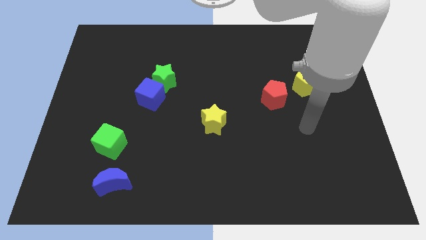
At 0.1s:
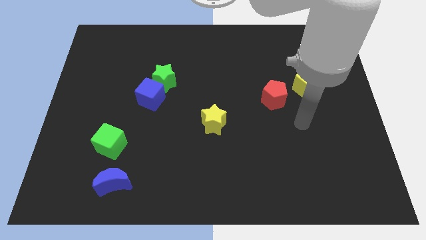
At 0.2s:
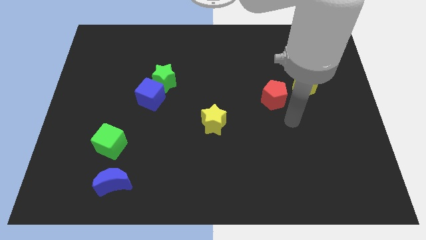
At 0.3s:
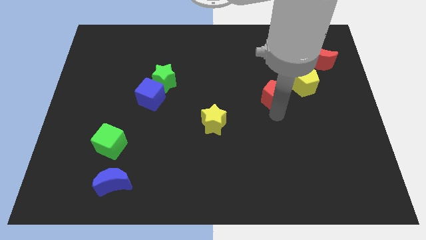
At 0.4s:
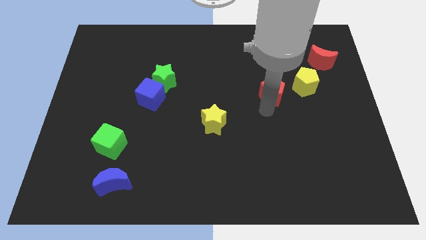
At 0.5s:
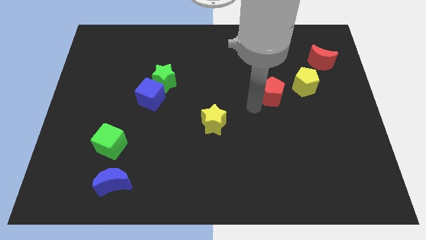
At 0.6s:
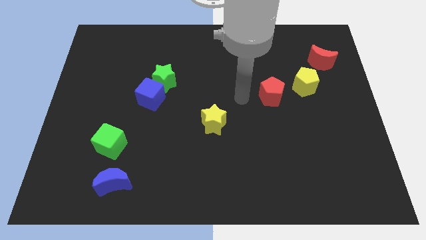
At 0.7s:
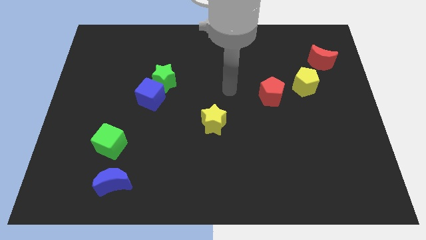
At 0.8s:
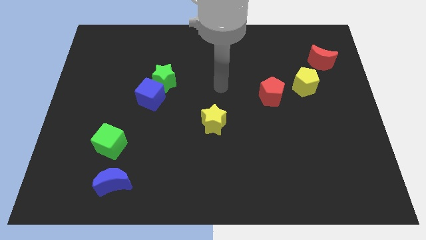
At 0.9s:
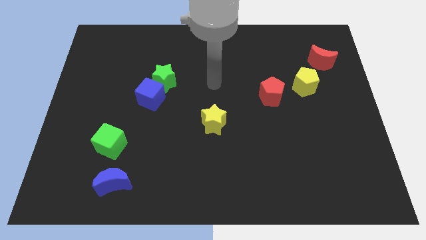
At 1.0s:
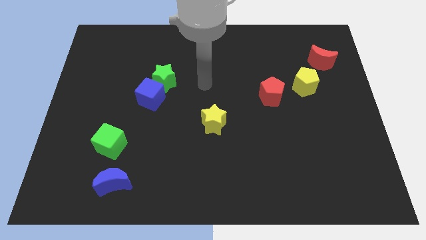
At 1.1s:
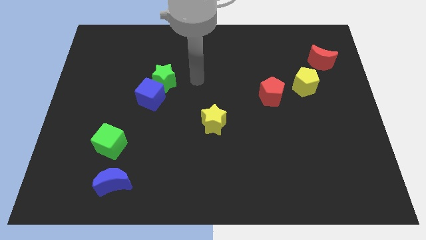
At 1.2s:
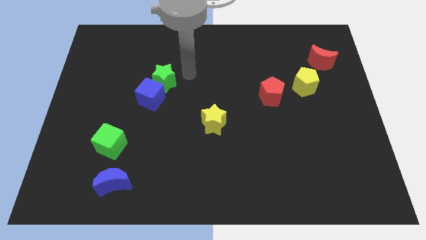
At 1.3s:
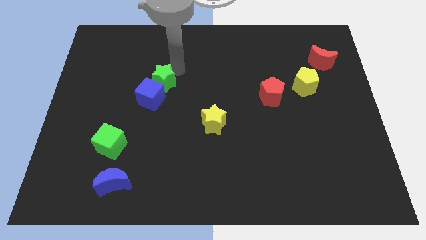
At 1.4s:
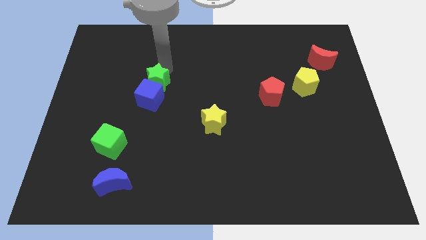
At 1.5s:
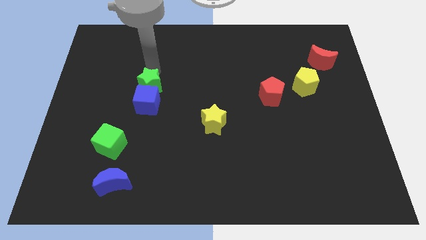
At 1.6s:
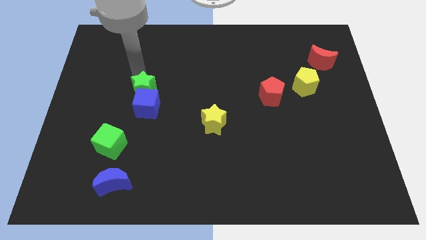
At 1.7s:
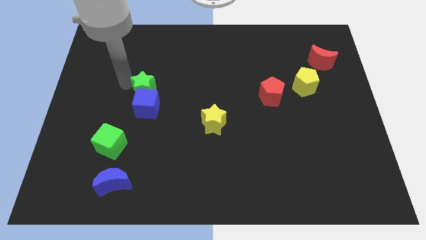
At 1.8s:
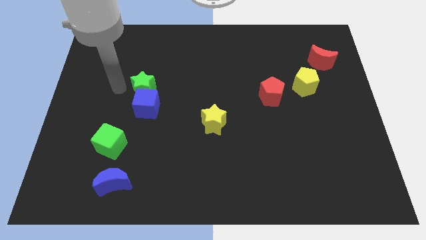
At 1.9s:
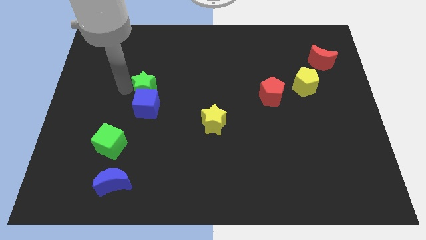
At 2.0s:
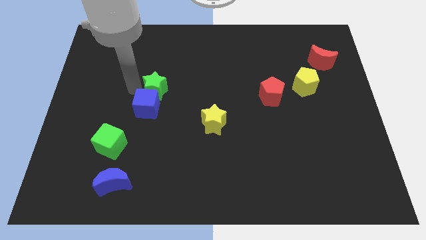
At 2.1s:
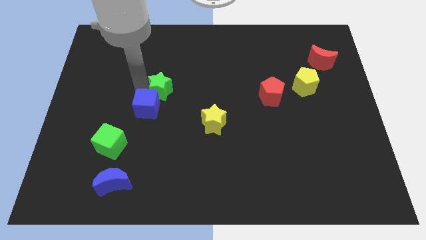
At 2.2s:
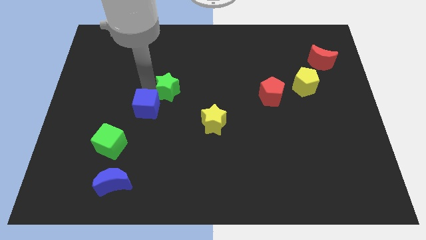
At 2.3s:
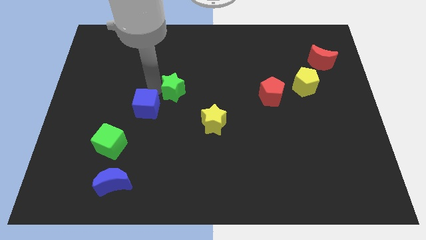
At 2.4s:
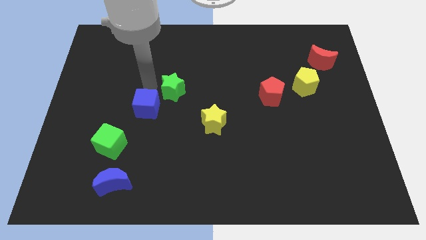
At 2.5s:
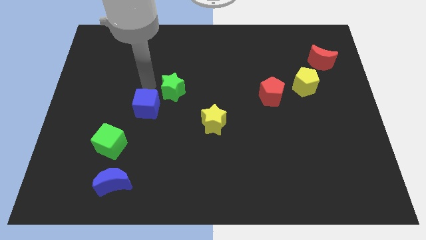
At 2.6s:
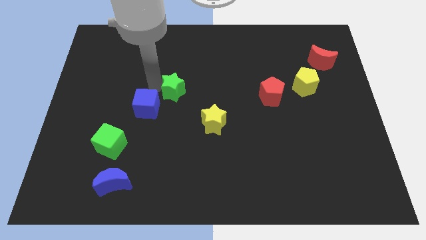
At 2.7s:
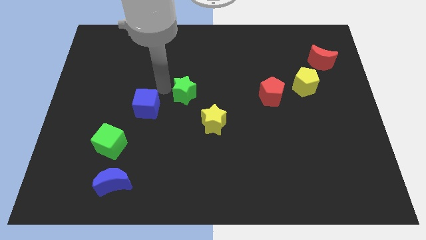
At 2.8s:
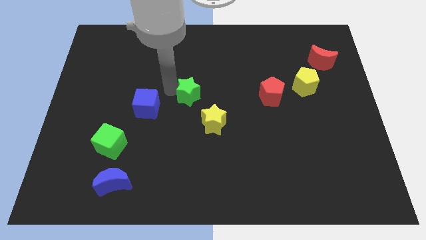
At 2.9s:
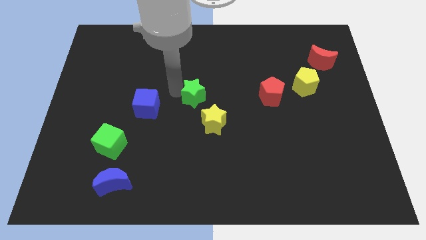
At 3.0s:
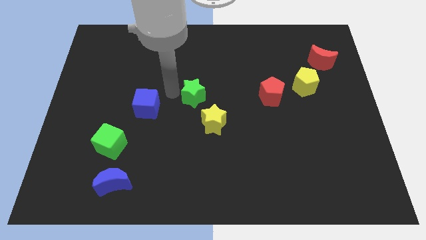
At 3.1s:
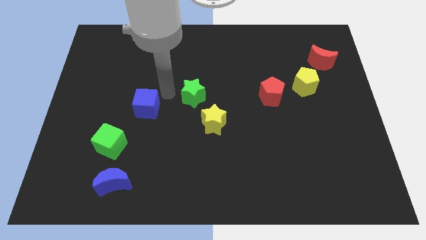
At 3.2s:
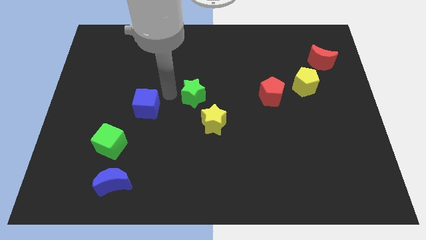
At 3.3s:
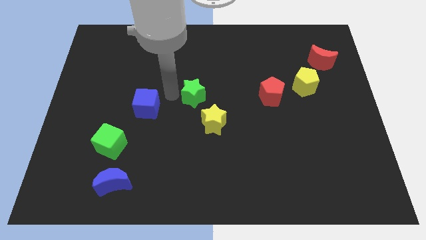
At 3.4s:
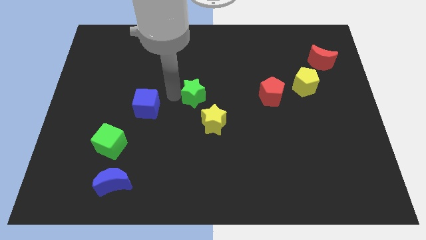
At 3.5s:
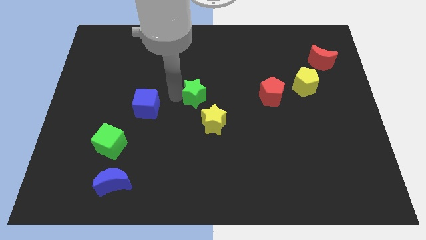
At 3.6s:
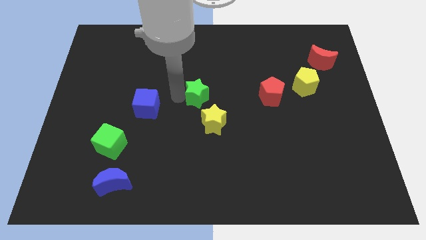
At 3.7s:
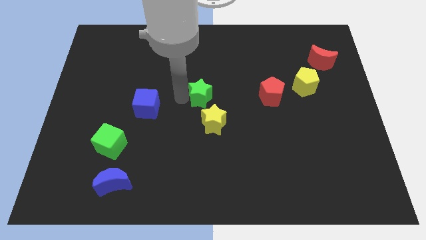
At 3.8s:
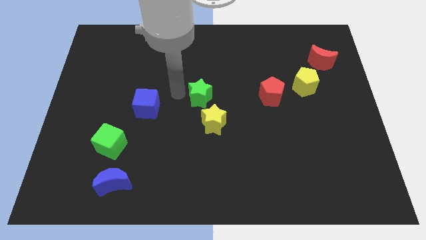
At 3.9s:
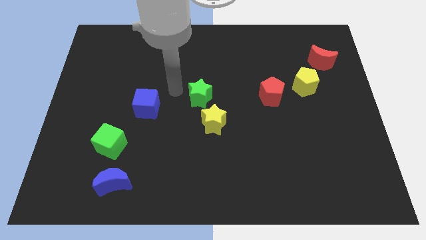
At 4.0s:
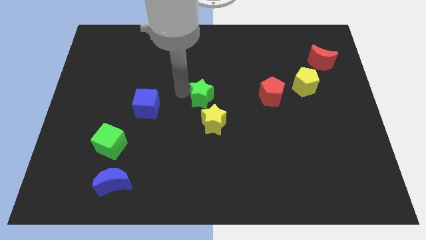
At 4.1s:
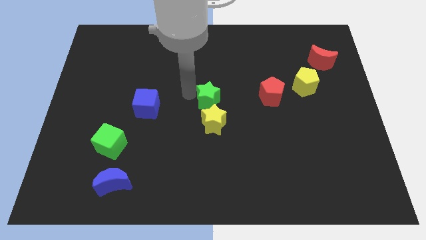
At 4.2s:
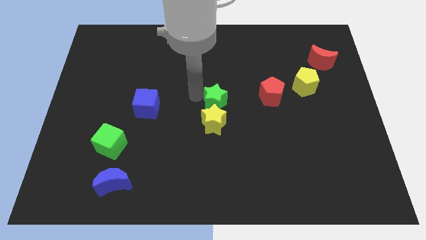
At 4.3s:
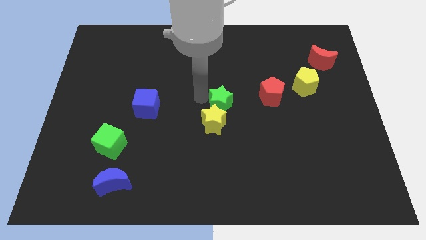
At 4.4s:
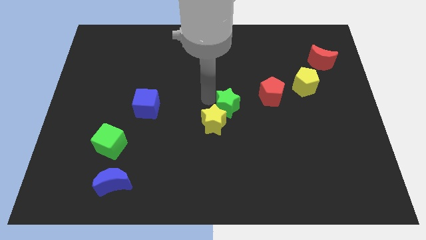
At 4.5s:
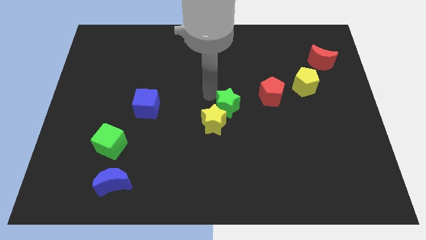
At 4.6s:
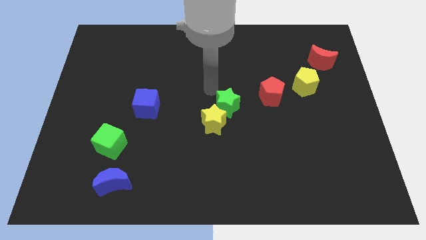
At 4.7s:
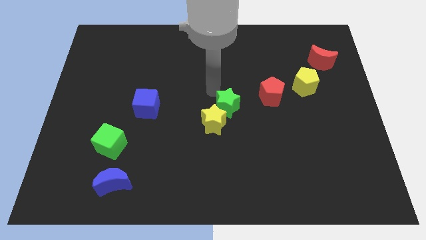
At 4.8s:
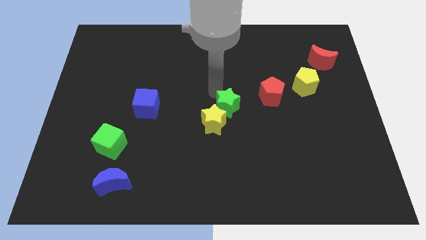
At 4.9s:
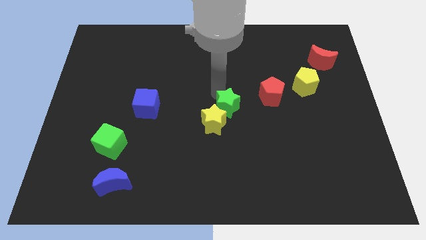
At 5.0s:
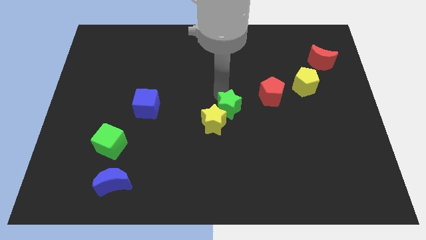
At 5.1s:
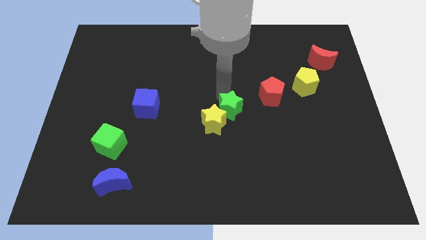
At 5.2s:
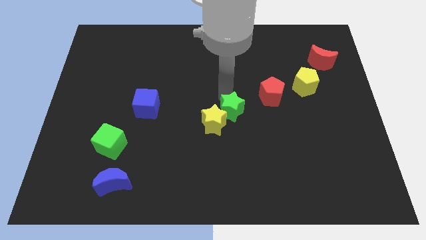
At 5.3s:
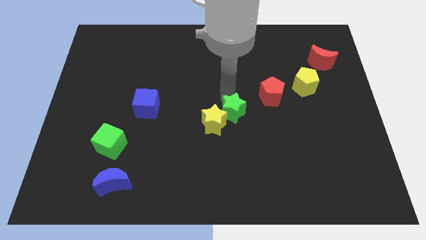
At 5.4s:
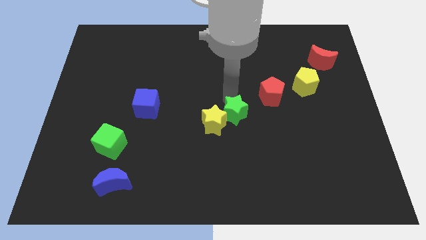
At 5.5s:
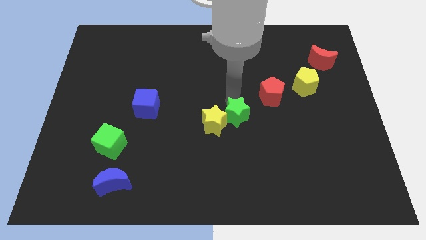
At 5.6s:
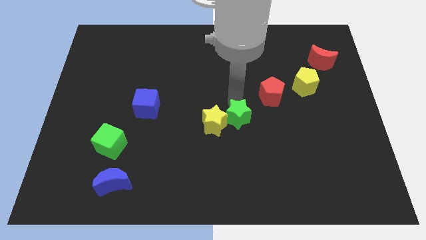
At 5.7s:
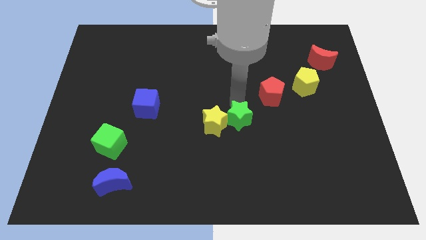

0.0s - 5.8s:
slide the green star diagonally down and right

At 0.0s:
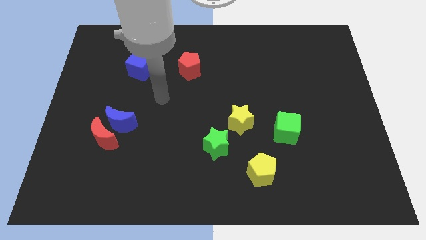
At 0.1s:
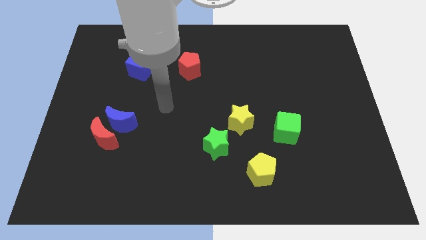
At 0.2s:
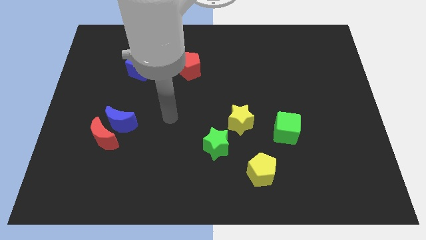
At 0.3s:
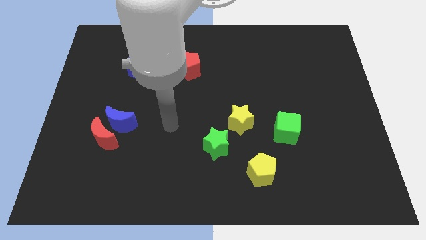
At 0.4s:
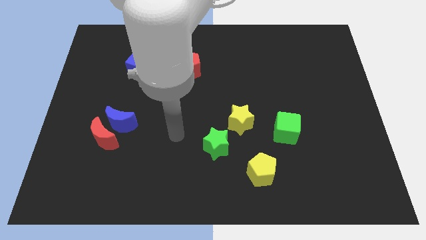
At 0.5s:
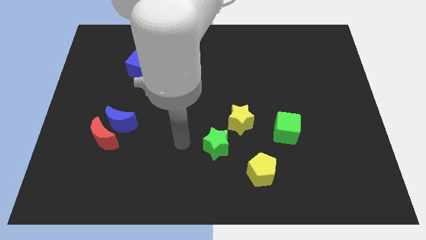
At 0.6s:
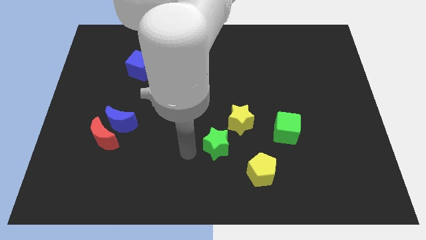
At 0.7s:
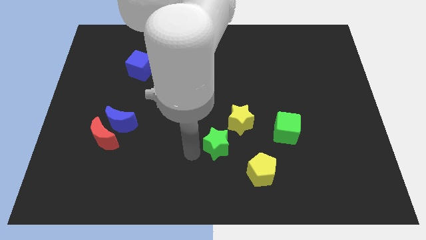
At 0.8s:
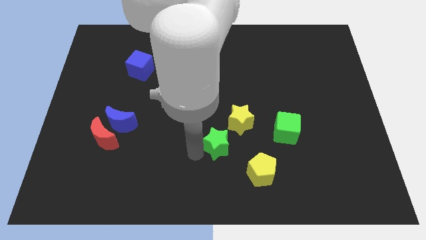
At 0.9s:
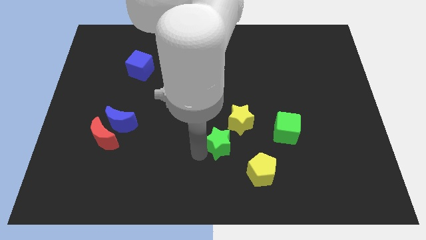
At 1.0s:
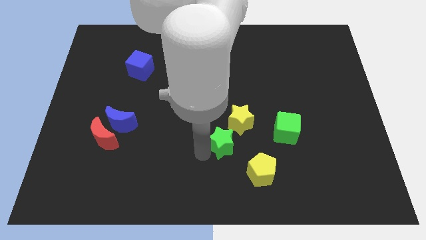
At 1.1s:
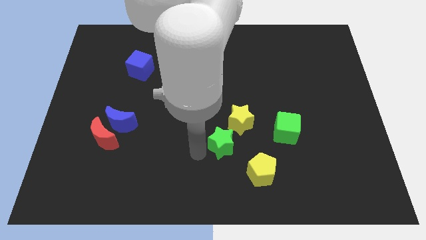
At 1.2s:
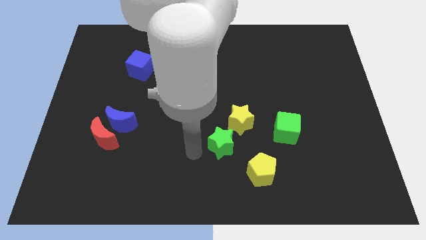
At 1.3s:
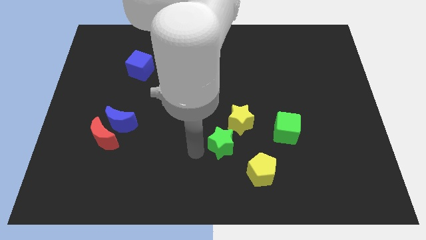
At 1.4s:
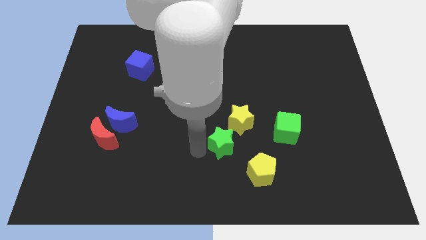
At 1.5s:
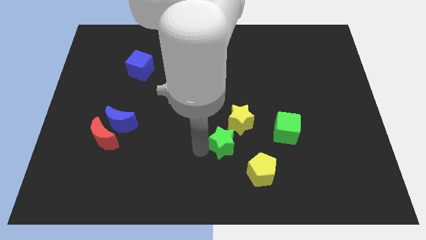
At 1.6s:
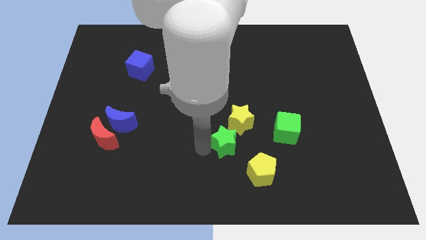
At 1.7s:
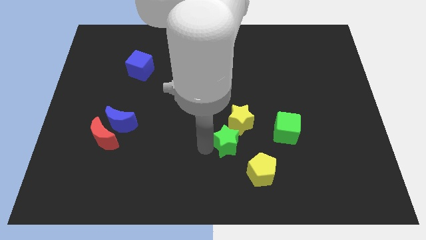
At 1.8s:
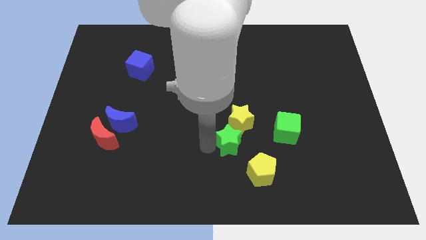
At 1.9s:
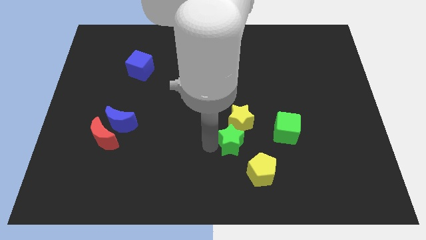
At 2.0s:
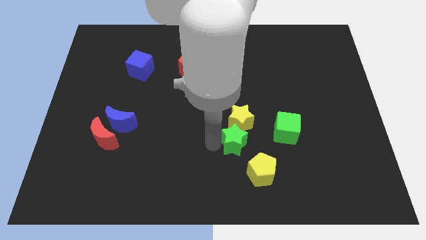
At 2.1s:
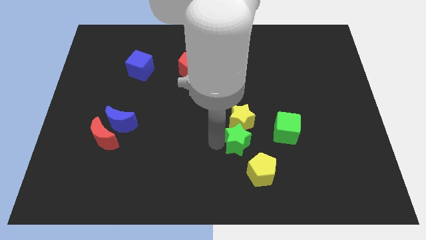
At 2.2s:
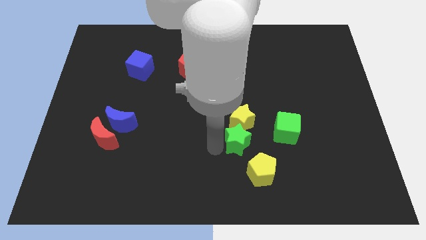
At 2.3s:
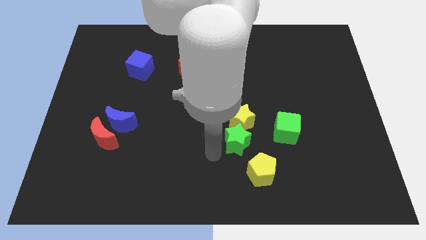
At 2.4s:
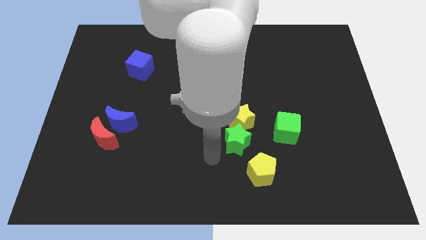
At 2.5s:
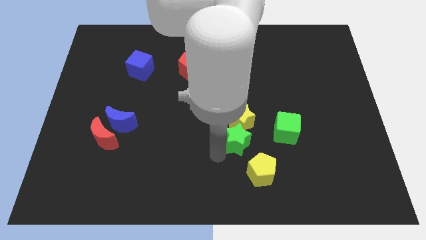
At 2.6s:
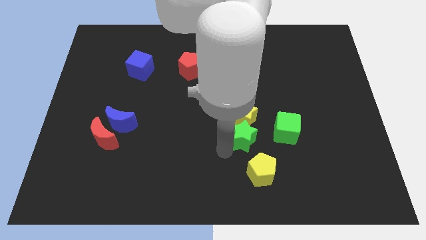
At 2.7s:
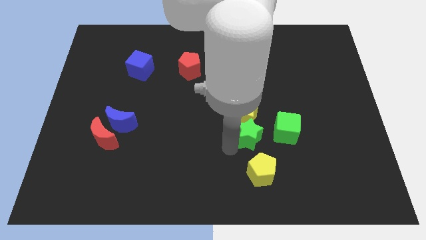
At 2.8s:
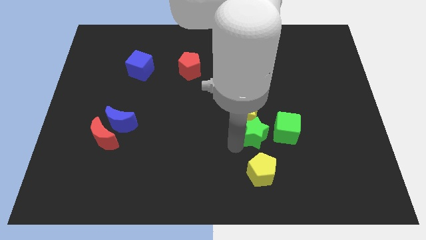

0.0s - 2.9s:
slide the green star up and then right a little bit
